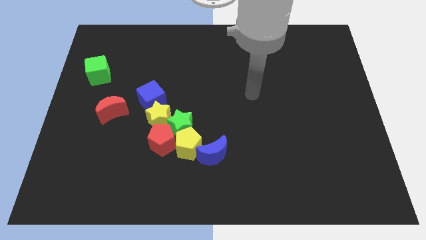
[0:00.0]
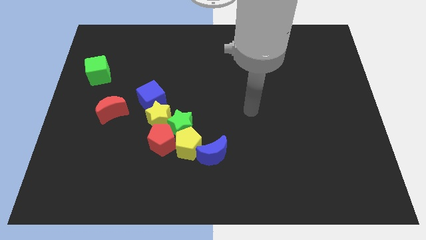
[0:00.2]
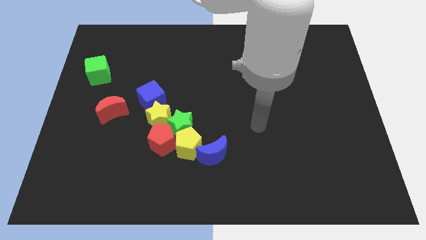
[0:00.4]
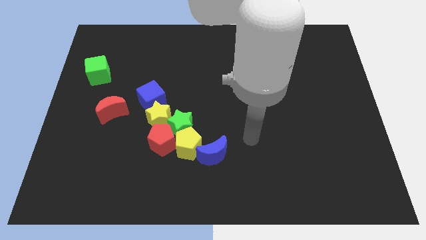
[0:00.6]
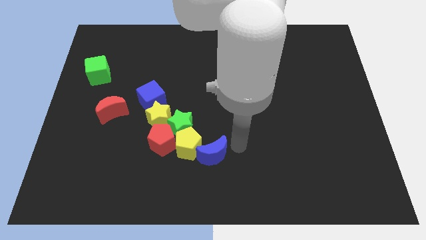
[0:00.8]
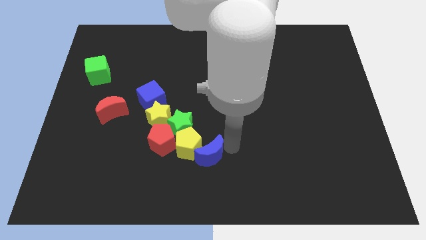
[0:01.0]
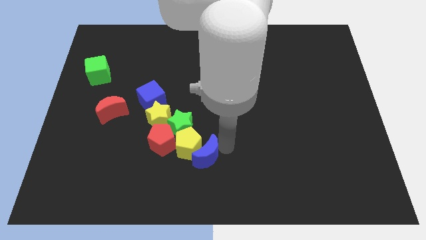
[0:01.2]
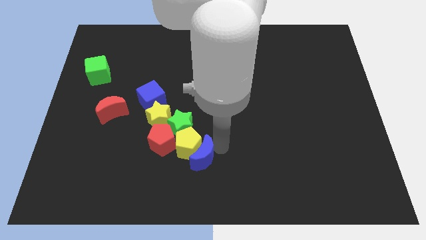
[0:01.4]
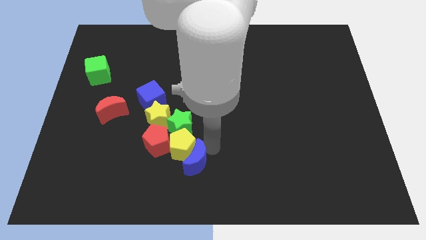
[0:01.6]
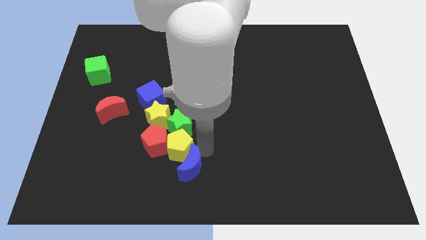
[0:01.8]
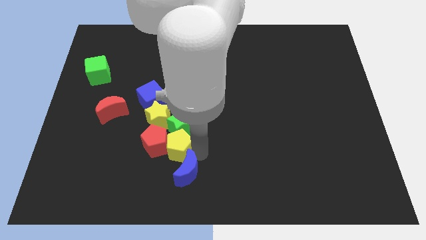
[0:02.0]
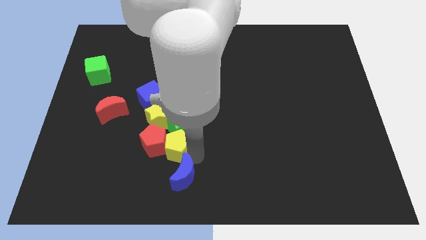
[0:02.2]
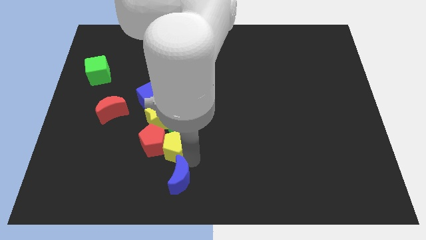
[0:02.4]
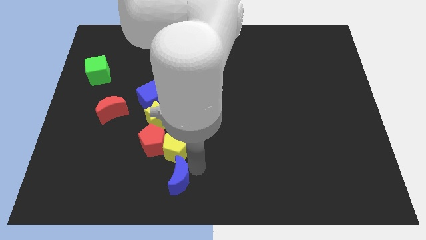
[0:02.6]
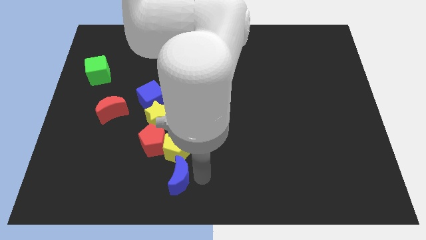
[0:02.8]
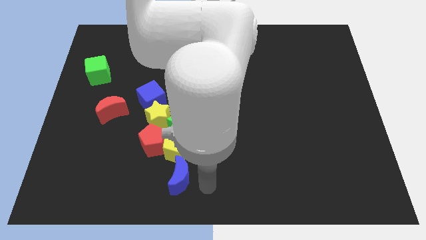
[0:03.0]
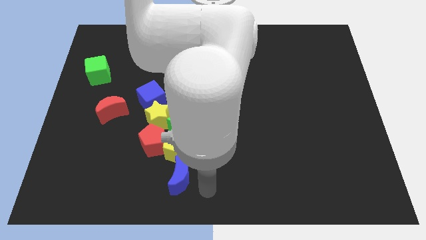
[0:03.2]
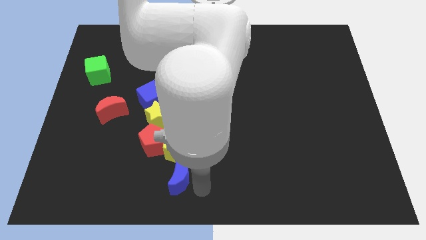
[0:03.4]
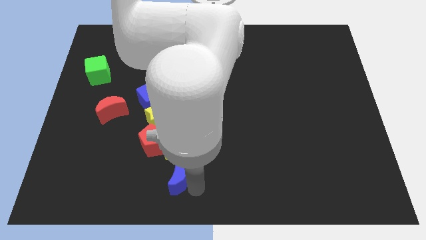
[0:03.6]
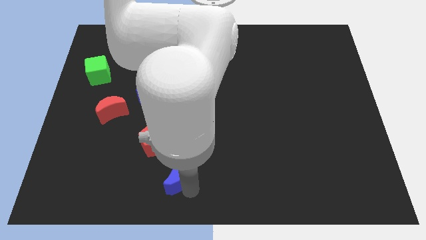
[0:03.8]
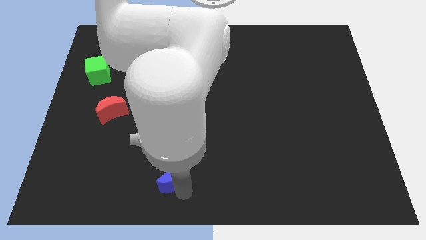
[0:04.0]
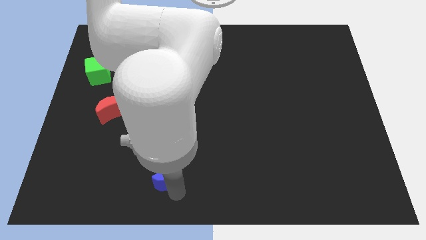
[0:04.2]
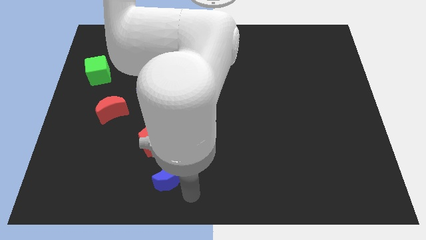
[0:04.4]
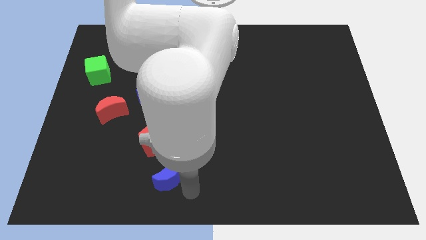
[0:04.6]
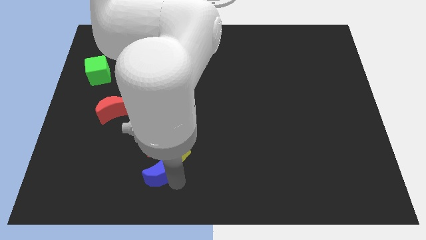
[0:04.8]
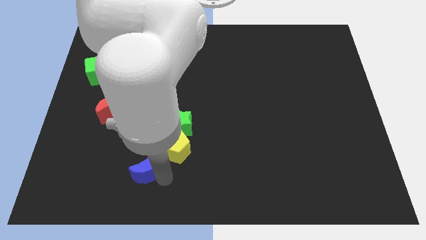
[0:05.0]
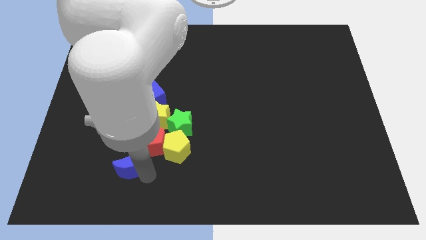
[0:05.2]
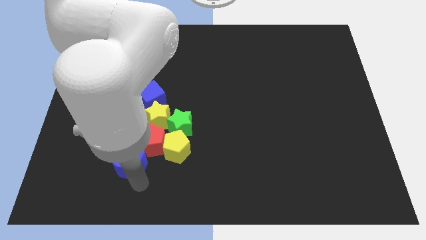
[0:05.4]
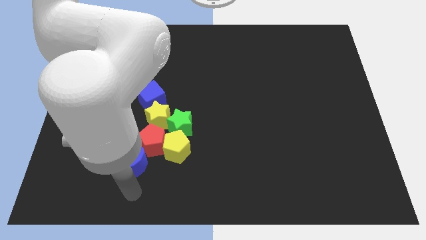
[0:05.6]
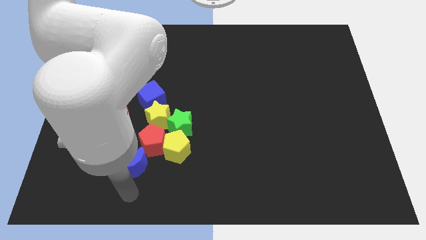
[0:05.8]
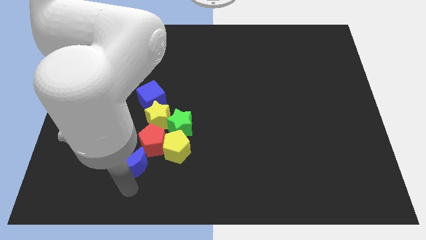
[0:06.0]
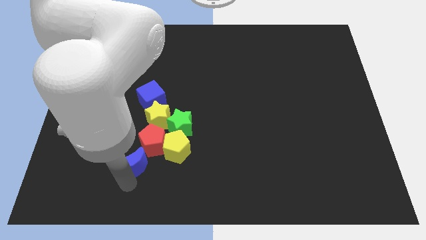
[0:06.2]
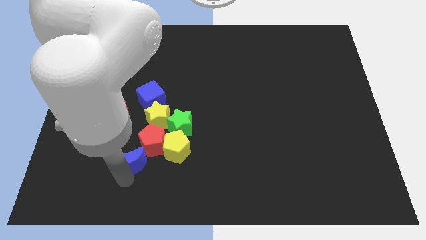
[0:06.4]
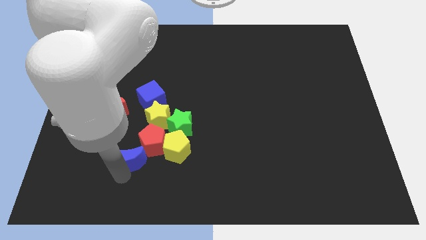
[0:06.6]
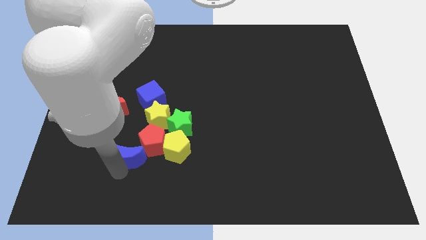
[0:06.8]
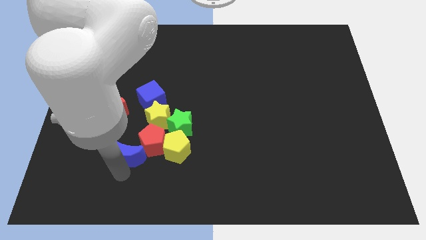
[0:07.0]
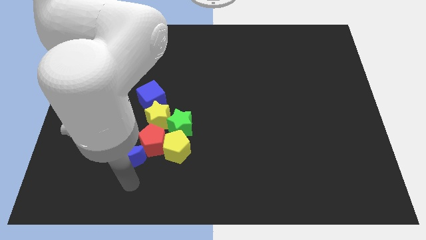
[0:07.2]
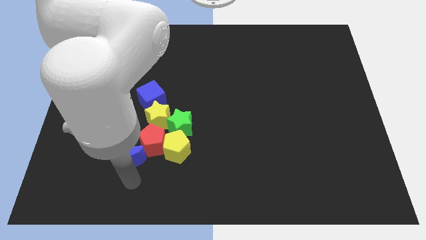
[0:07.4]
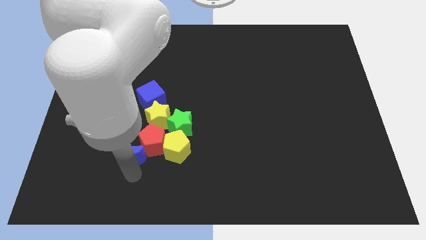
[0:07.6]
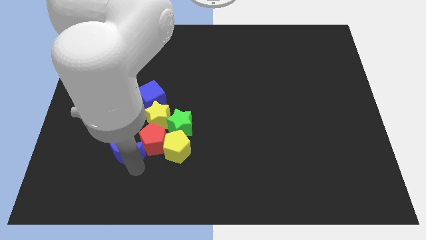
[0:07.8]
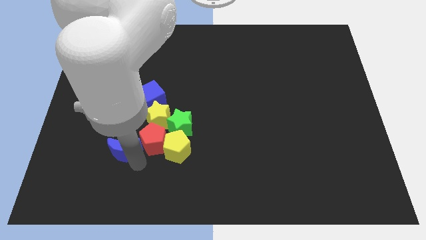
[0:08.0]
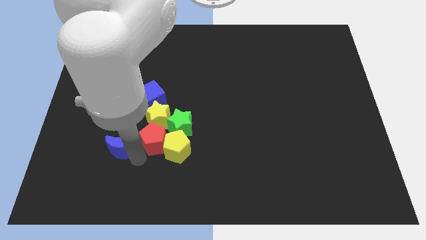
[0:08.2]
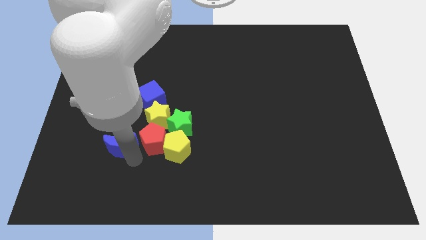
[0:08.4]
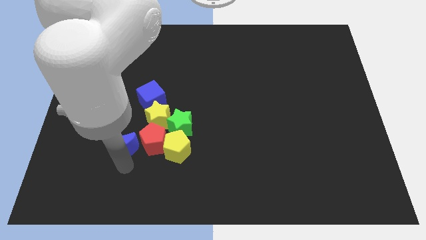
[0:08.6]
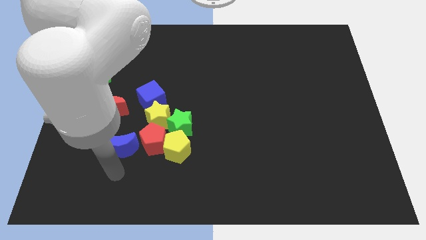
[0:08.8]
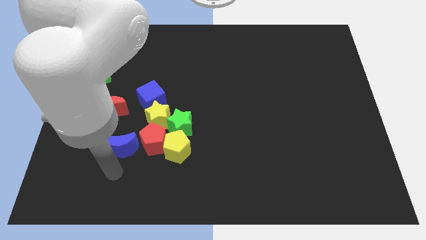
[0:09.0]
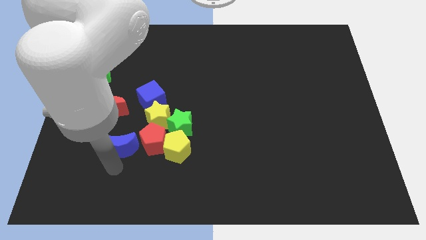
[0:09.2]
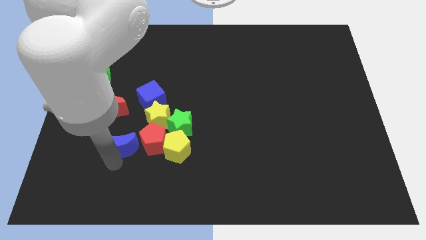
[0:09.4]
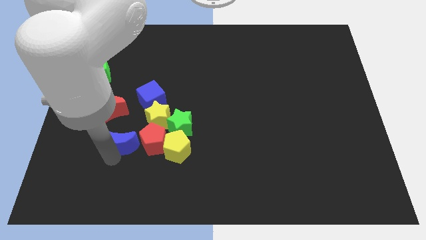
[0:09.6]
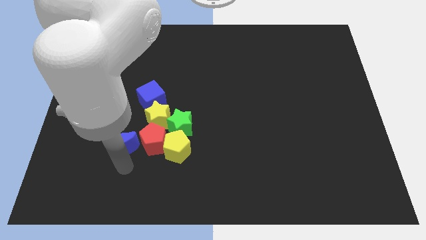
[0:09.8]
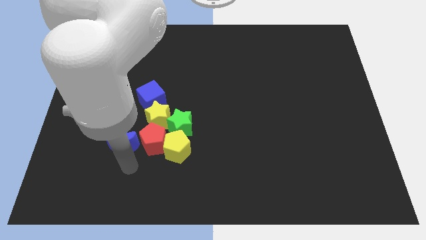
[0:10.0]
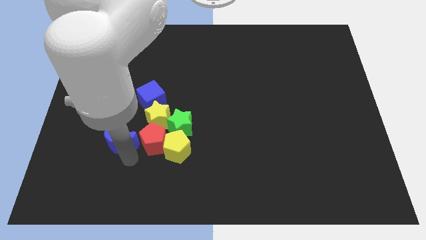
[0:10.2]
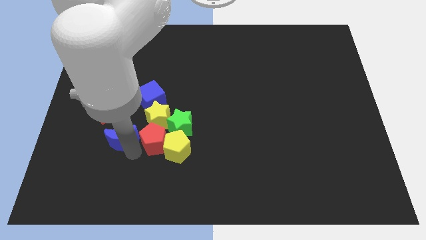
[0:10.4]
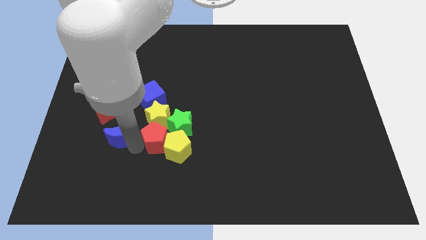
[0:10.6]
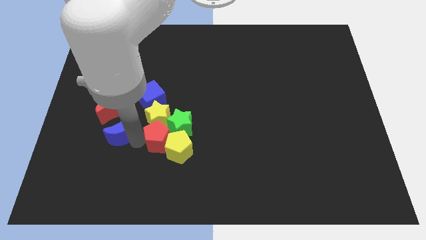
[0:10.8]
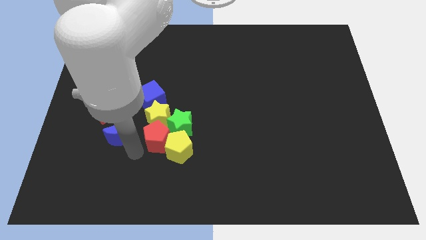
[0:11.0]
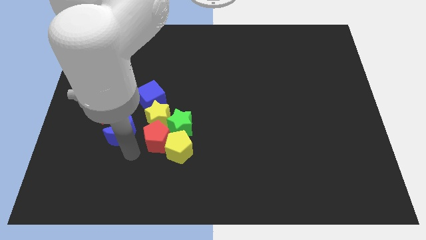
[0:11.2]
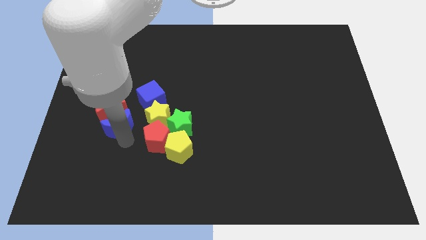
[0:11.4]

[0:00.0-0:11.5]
slide the blue moon next to the red moon
